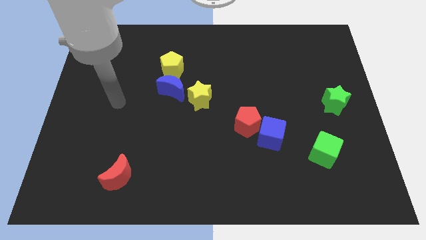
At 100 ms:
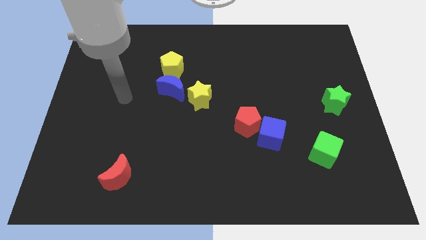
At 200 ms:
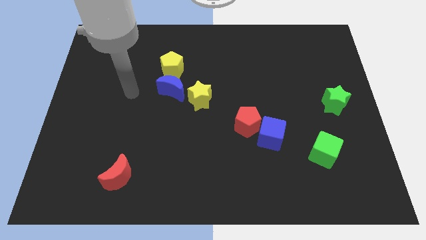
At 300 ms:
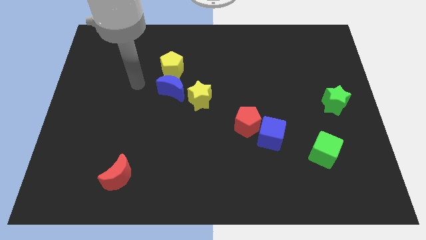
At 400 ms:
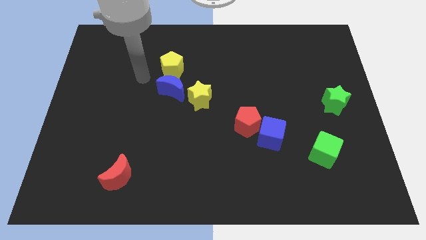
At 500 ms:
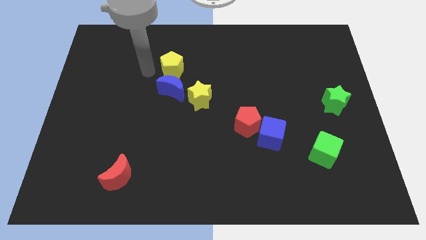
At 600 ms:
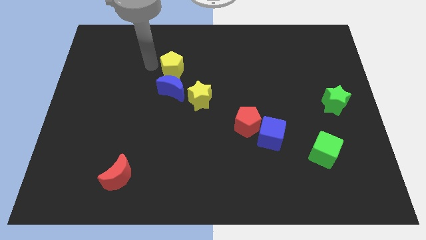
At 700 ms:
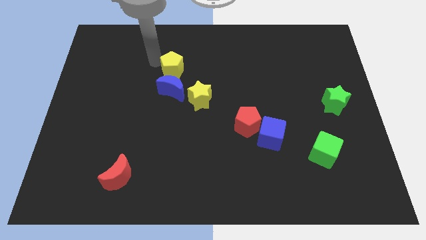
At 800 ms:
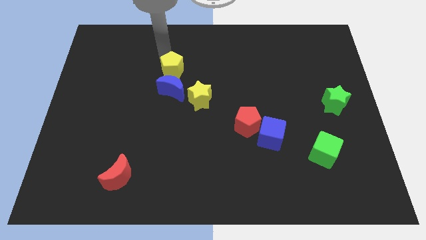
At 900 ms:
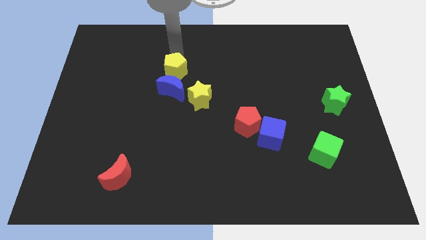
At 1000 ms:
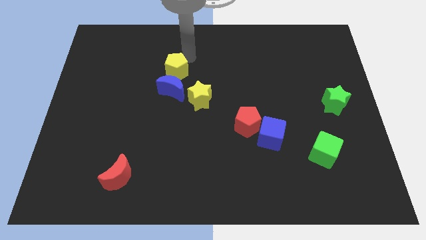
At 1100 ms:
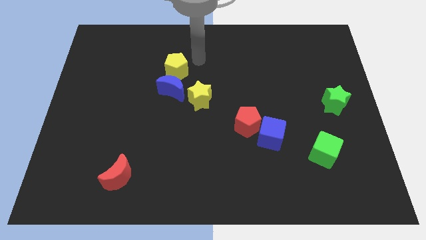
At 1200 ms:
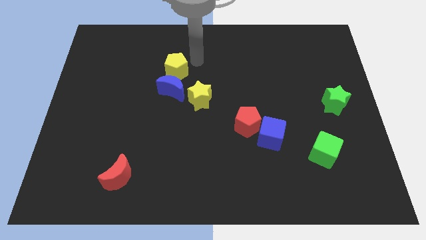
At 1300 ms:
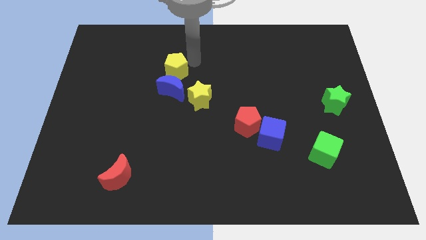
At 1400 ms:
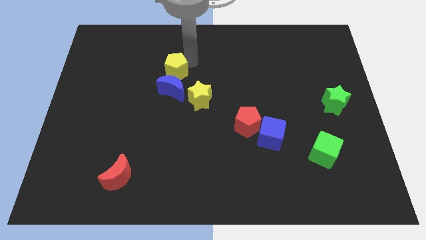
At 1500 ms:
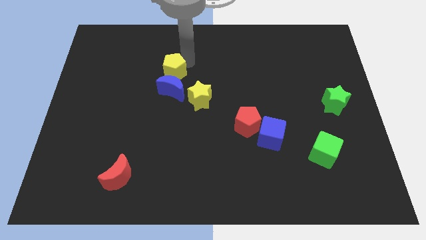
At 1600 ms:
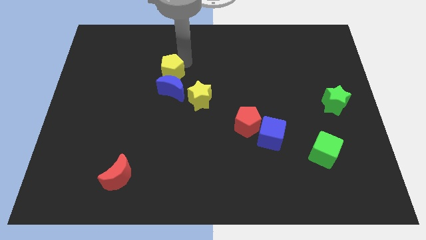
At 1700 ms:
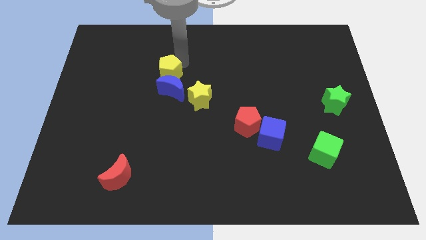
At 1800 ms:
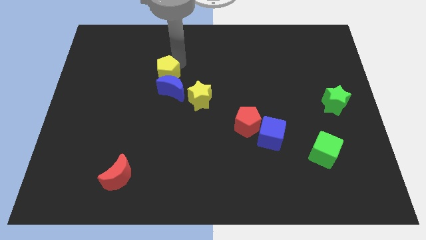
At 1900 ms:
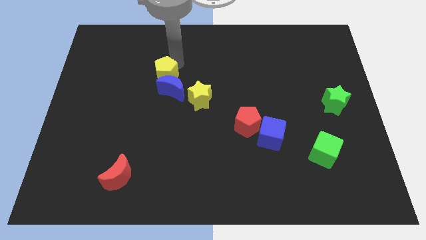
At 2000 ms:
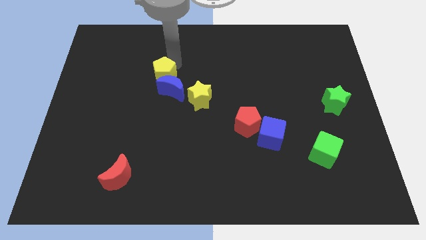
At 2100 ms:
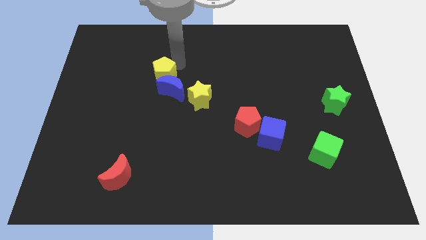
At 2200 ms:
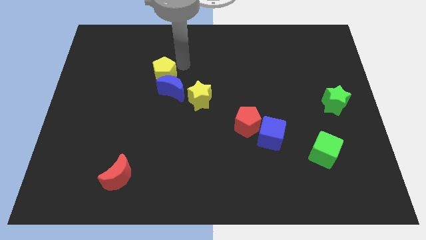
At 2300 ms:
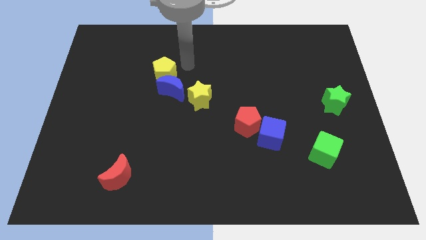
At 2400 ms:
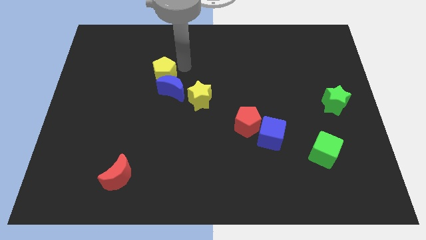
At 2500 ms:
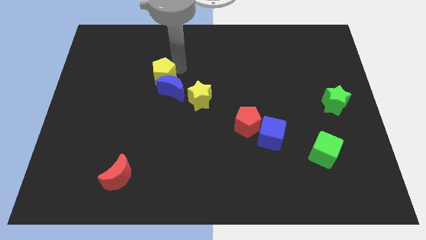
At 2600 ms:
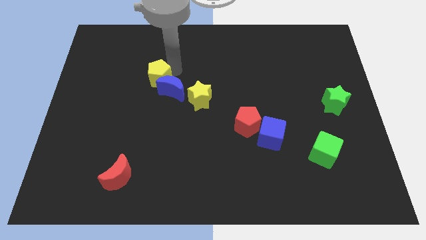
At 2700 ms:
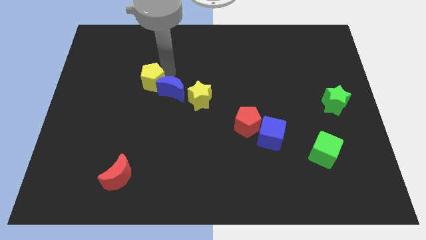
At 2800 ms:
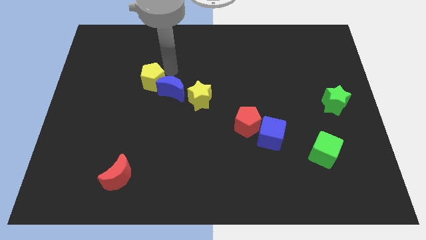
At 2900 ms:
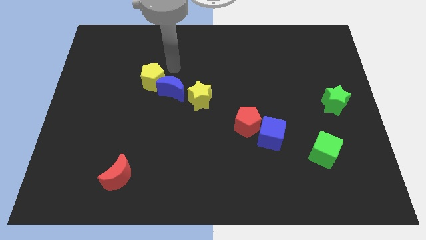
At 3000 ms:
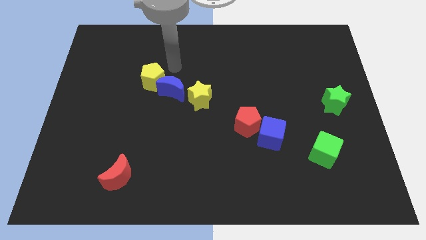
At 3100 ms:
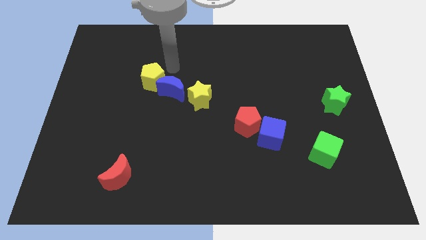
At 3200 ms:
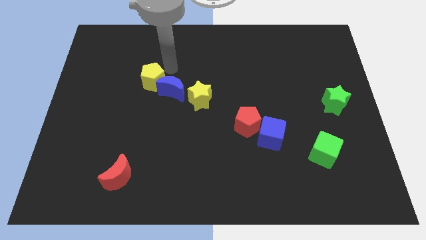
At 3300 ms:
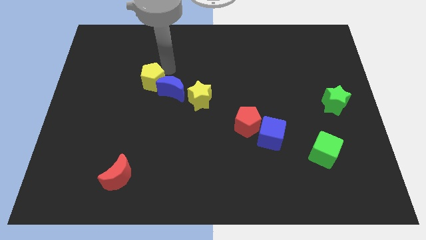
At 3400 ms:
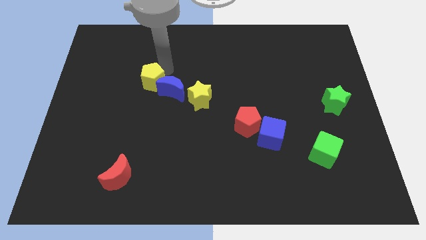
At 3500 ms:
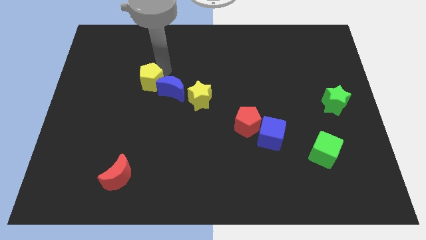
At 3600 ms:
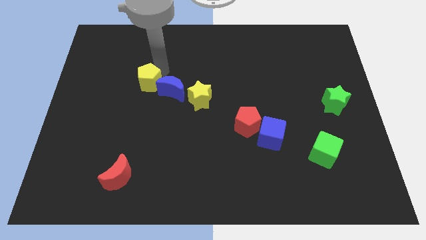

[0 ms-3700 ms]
slide the yellow pentagon down and left diagonally slightly

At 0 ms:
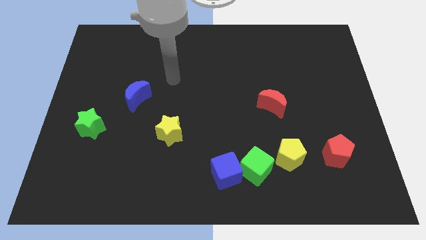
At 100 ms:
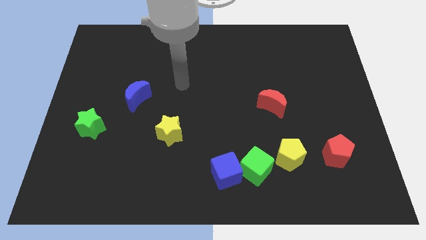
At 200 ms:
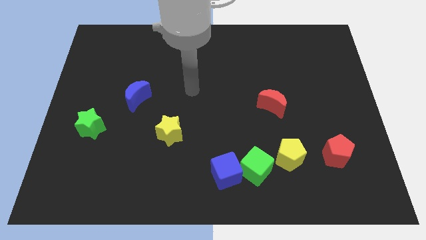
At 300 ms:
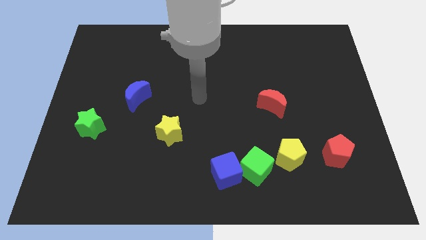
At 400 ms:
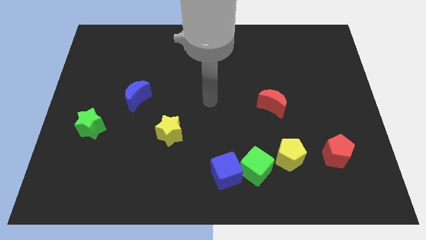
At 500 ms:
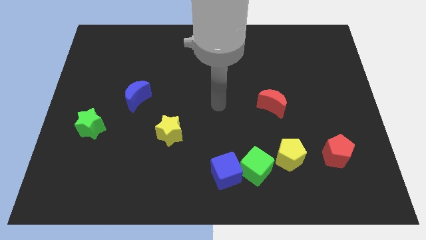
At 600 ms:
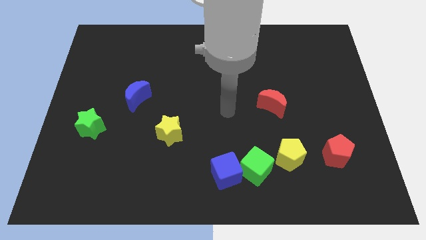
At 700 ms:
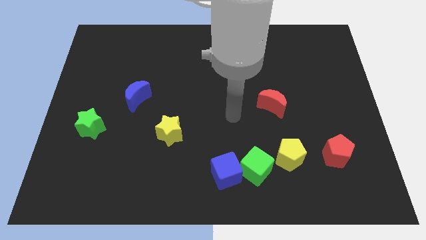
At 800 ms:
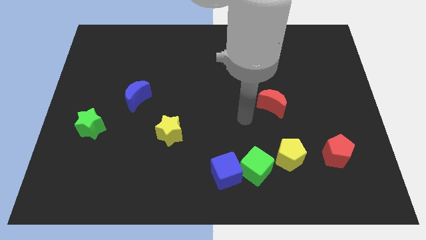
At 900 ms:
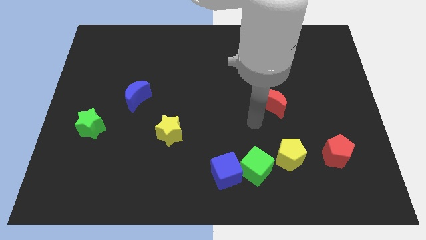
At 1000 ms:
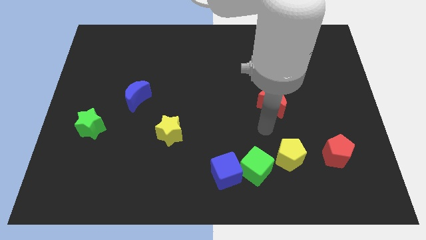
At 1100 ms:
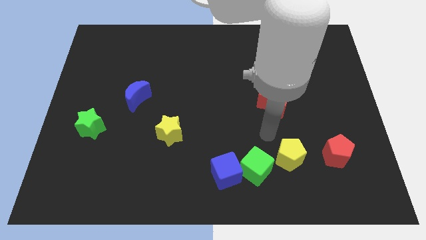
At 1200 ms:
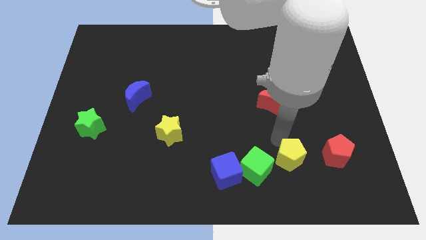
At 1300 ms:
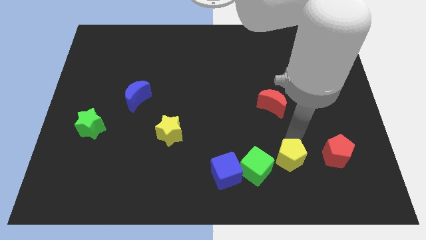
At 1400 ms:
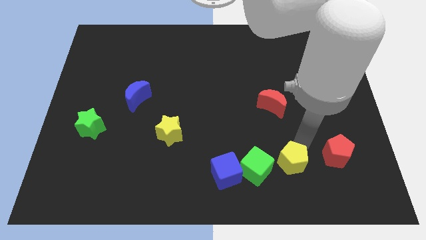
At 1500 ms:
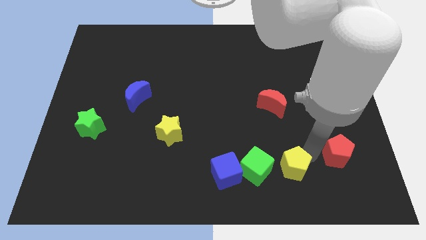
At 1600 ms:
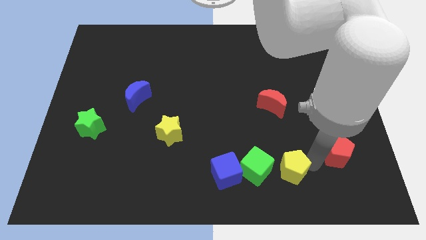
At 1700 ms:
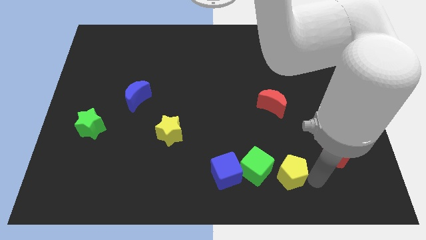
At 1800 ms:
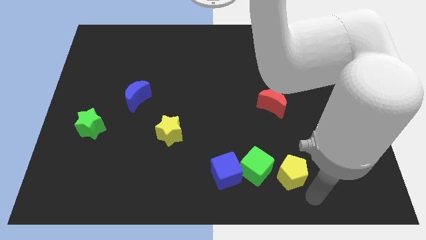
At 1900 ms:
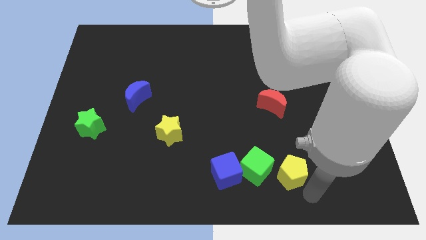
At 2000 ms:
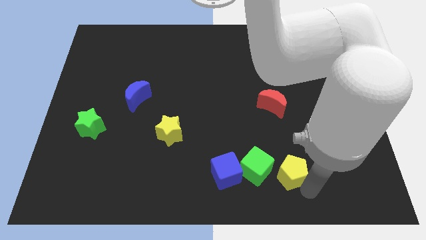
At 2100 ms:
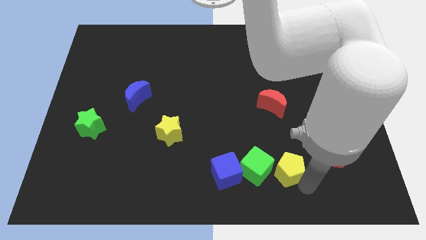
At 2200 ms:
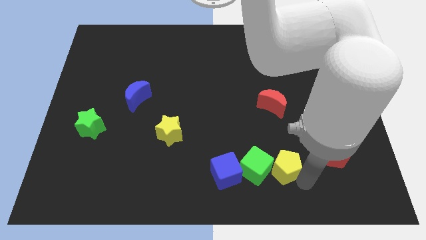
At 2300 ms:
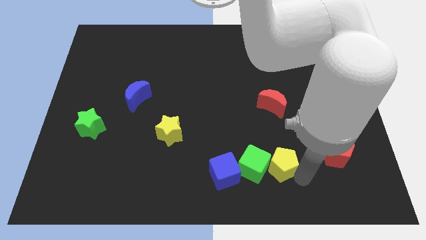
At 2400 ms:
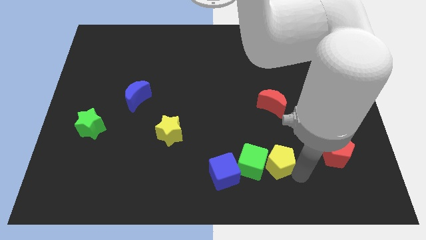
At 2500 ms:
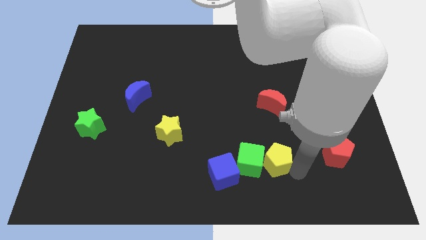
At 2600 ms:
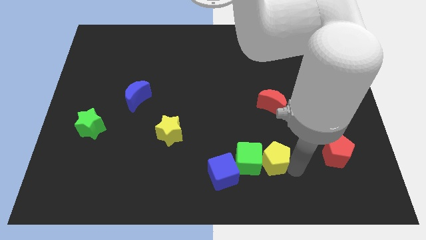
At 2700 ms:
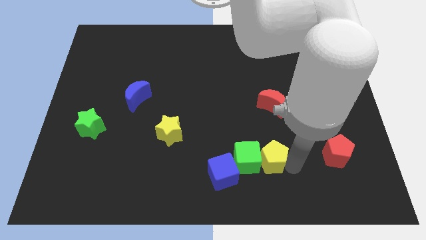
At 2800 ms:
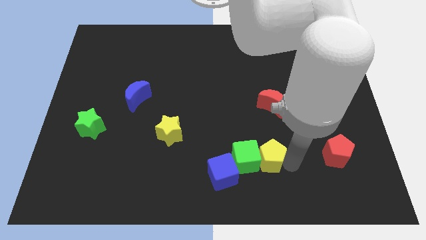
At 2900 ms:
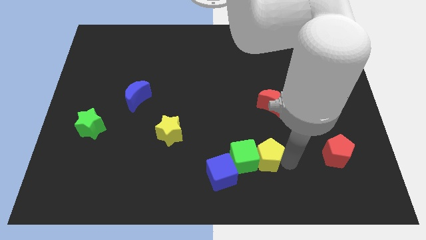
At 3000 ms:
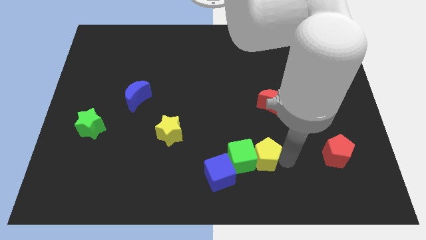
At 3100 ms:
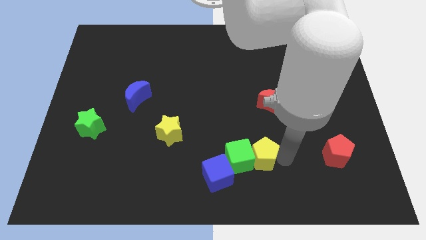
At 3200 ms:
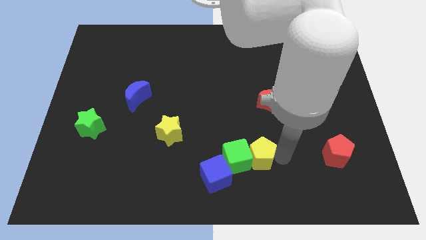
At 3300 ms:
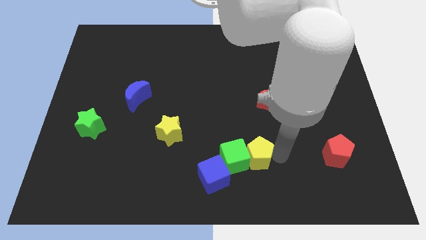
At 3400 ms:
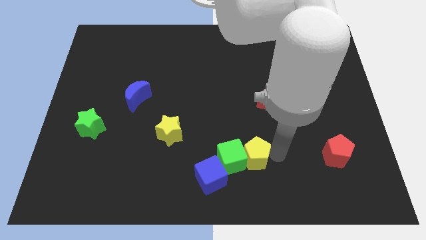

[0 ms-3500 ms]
slightly move the yellow pentagon to the left

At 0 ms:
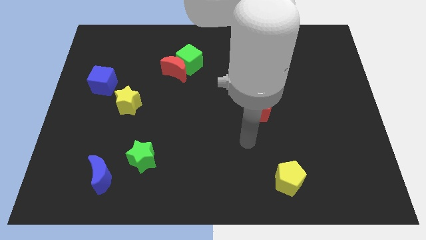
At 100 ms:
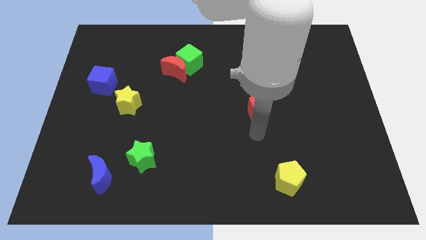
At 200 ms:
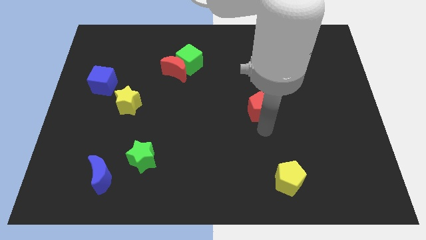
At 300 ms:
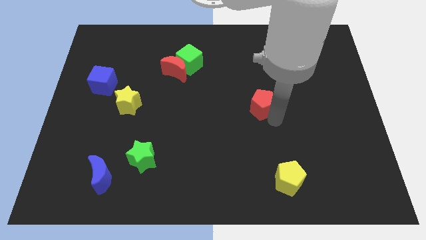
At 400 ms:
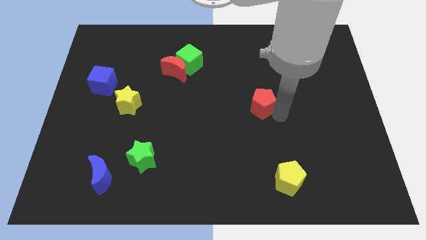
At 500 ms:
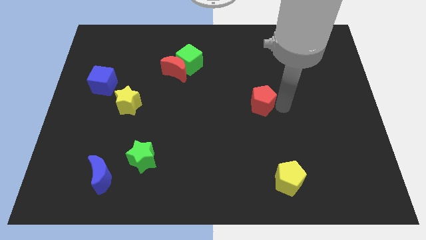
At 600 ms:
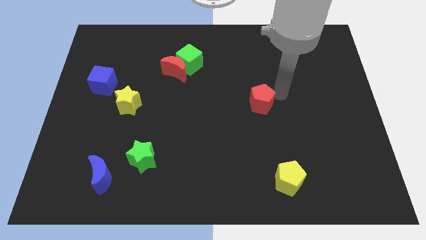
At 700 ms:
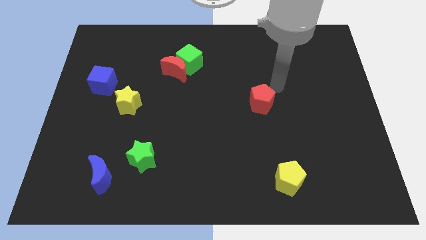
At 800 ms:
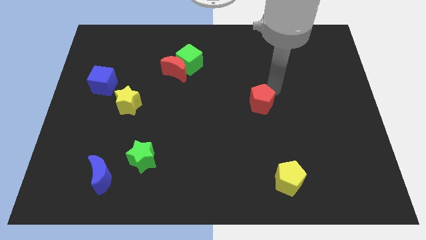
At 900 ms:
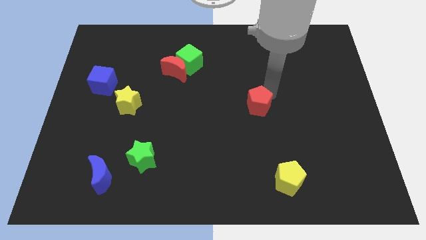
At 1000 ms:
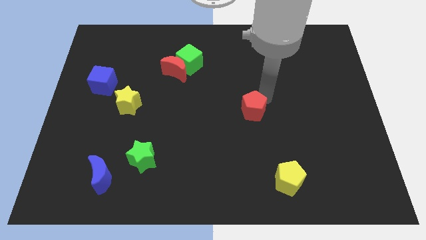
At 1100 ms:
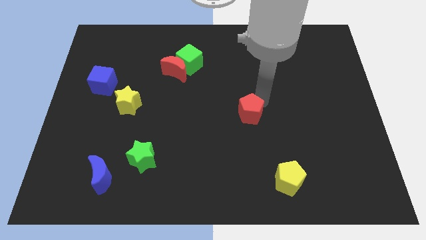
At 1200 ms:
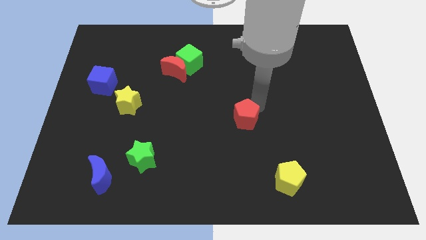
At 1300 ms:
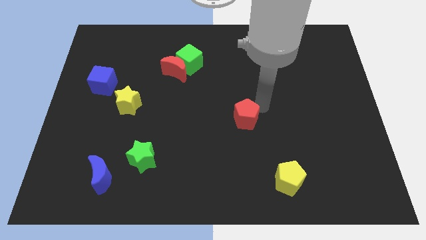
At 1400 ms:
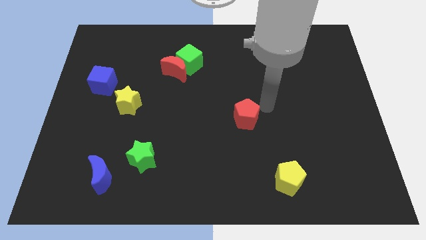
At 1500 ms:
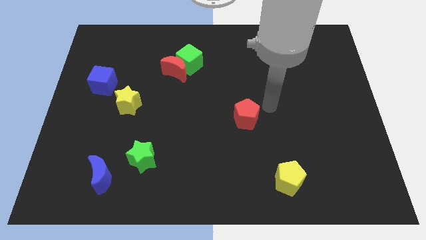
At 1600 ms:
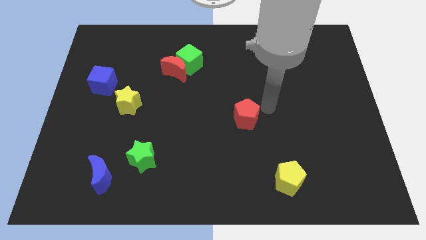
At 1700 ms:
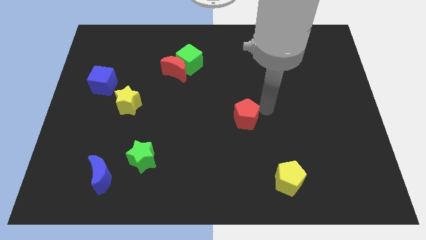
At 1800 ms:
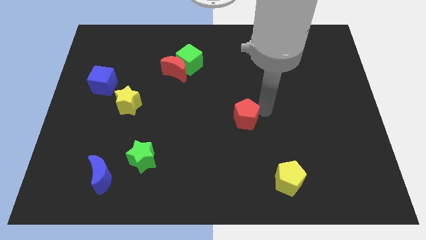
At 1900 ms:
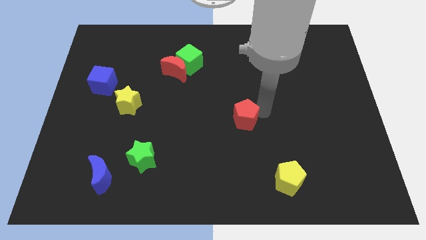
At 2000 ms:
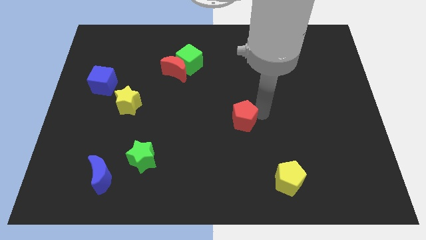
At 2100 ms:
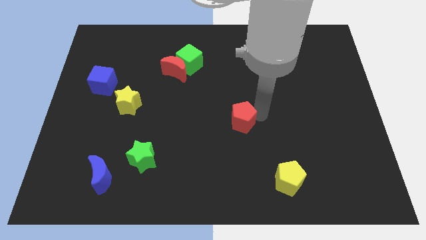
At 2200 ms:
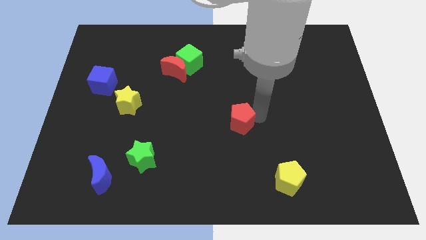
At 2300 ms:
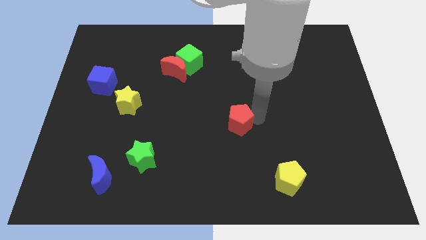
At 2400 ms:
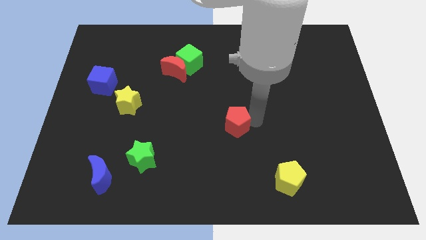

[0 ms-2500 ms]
slide the red pentagon somewhat downwards and then left
